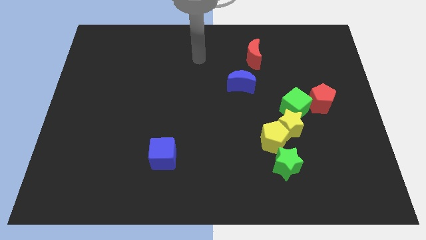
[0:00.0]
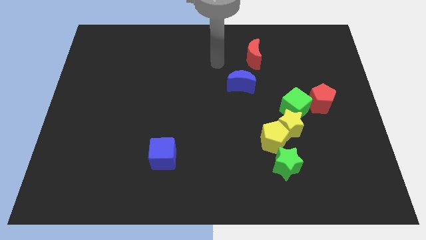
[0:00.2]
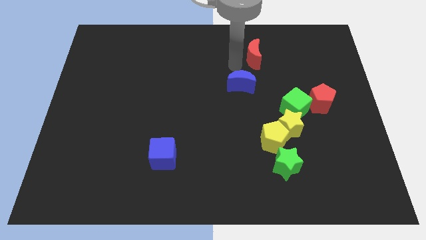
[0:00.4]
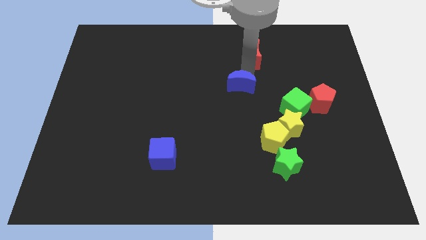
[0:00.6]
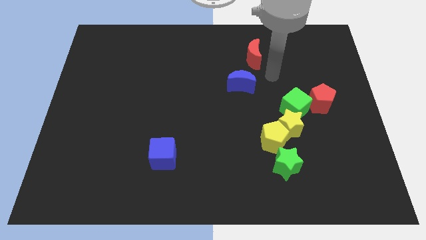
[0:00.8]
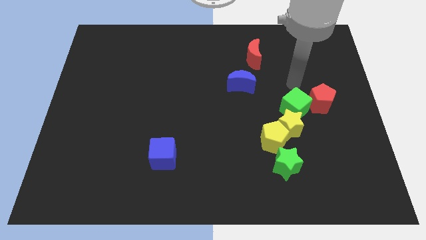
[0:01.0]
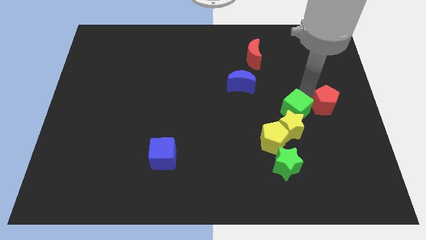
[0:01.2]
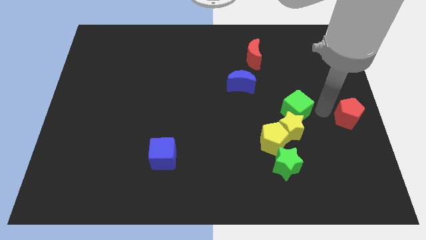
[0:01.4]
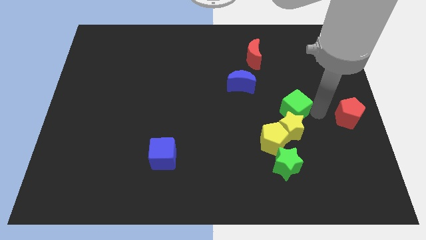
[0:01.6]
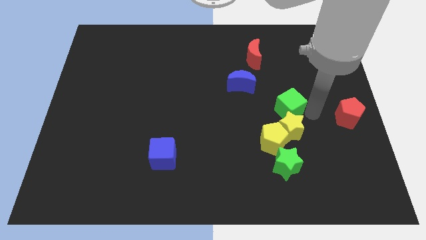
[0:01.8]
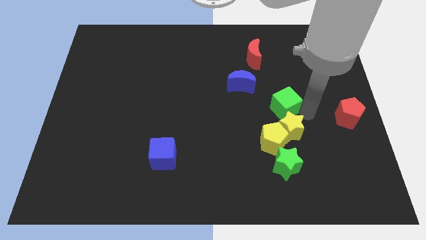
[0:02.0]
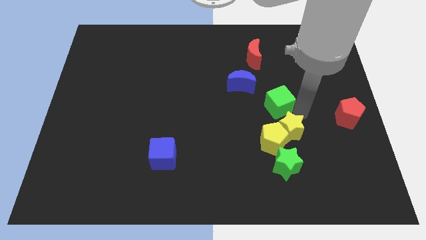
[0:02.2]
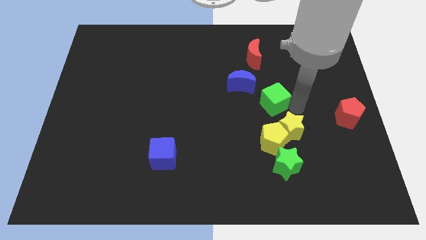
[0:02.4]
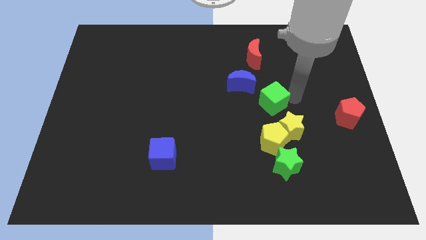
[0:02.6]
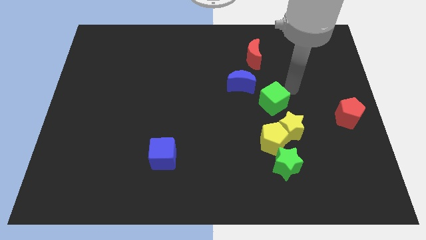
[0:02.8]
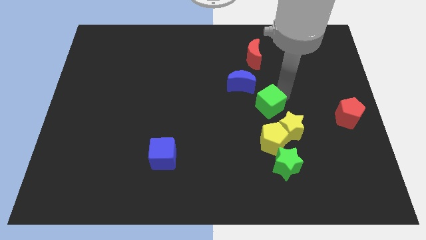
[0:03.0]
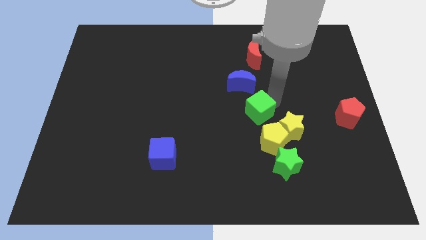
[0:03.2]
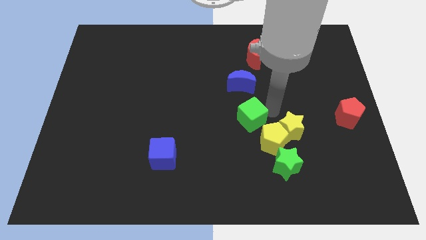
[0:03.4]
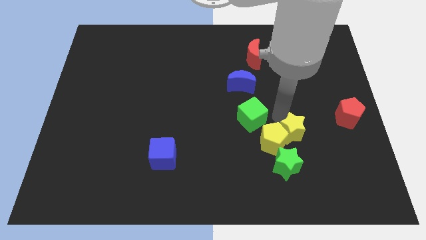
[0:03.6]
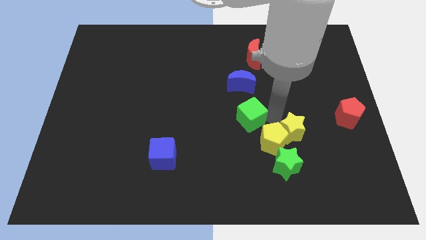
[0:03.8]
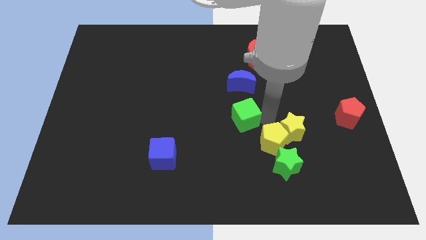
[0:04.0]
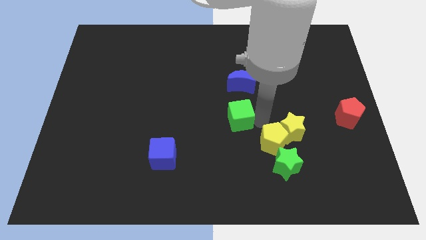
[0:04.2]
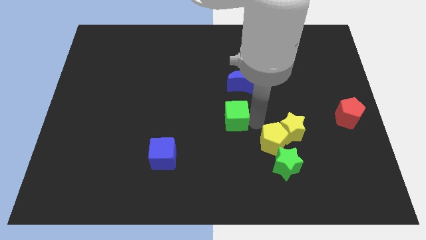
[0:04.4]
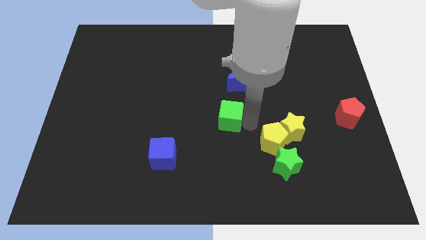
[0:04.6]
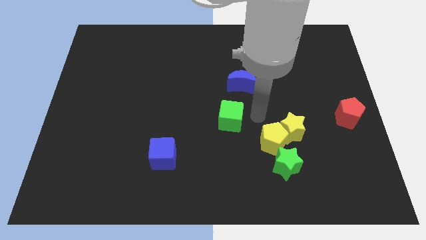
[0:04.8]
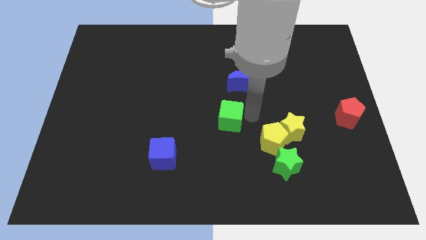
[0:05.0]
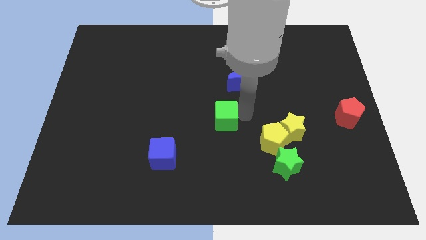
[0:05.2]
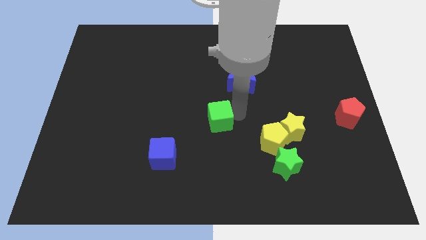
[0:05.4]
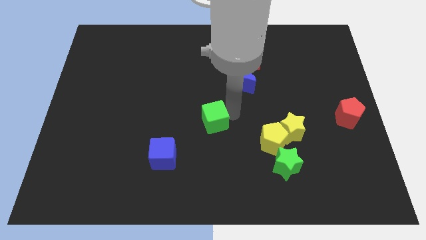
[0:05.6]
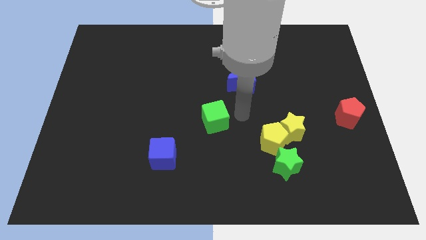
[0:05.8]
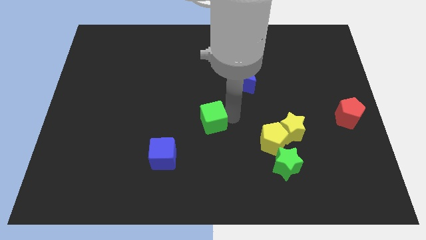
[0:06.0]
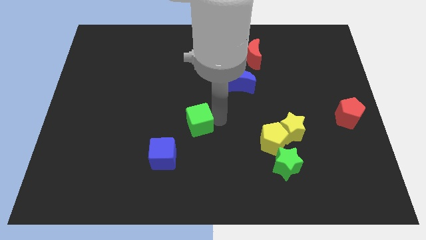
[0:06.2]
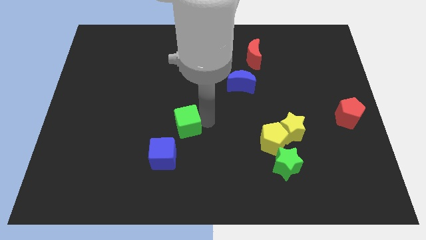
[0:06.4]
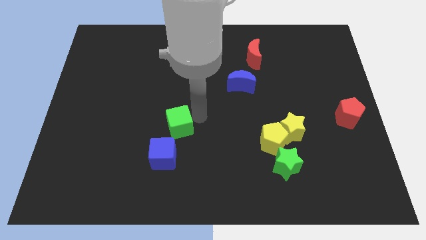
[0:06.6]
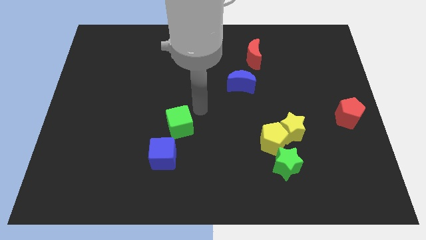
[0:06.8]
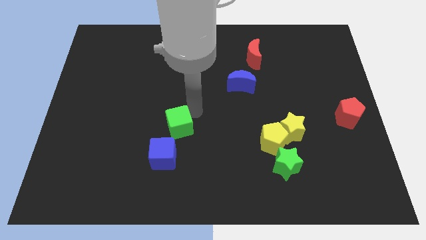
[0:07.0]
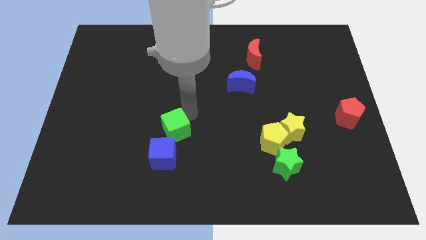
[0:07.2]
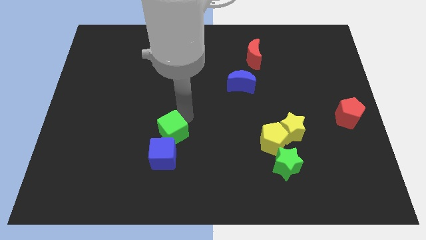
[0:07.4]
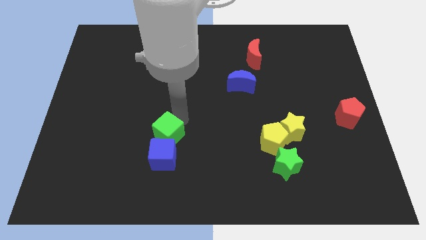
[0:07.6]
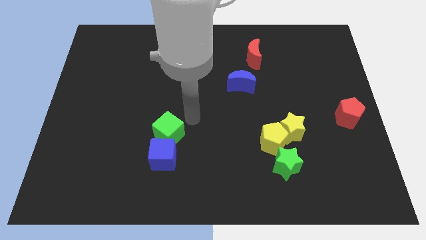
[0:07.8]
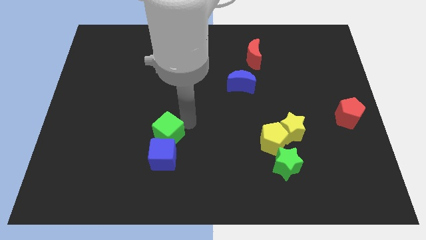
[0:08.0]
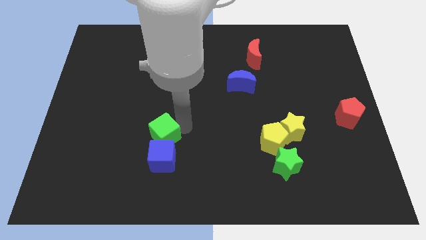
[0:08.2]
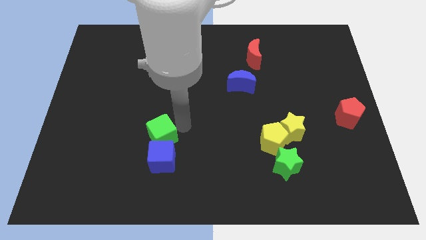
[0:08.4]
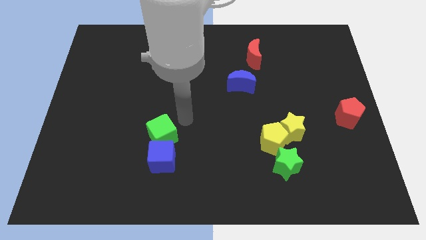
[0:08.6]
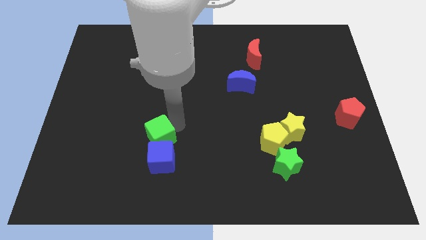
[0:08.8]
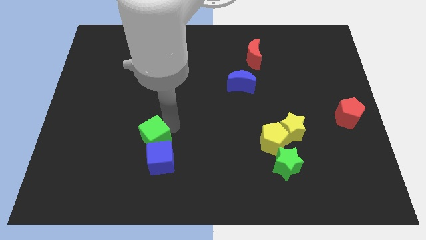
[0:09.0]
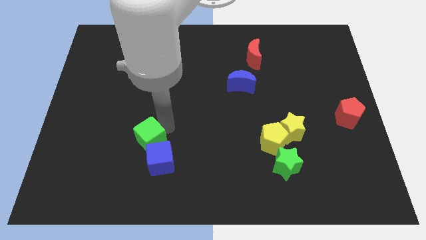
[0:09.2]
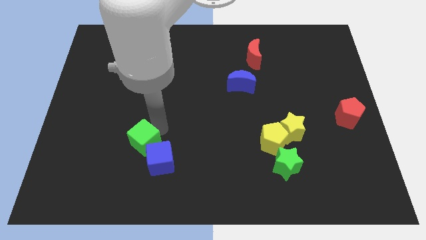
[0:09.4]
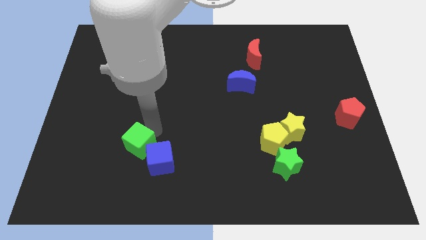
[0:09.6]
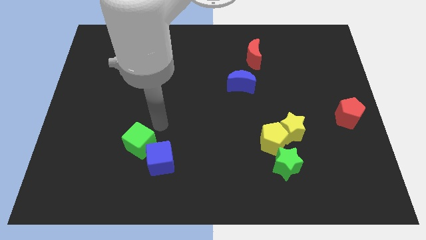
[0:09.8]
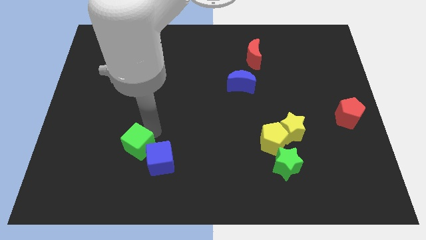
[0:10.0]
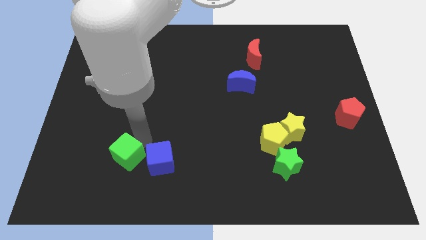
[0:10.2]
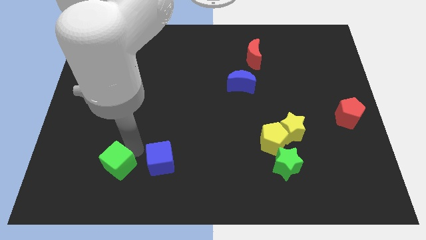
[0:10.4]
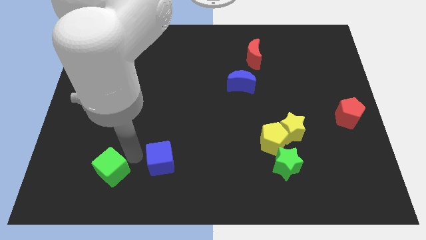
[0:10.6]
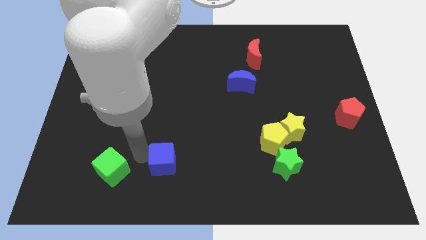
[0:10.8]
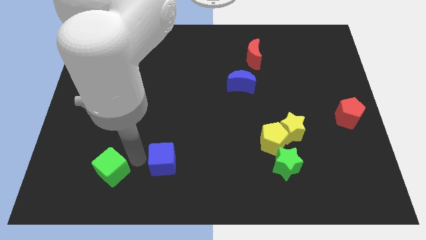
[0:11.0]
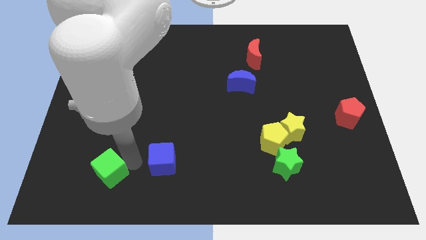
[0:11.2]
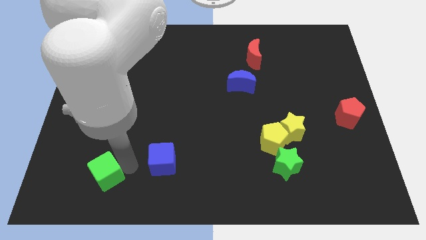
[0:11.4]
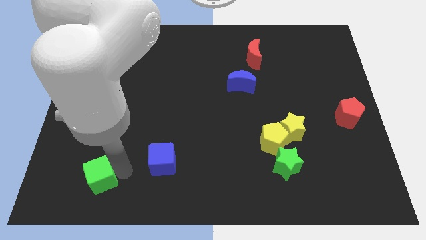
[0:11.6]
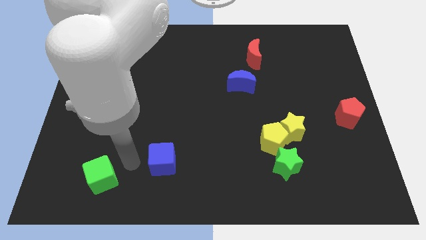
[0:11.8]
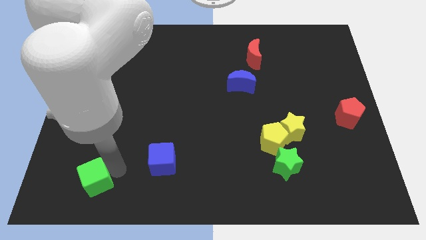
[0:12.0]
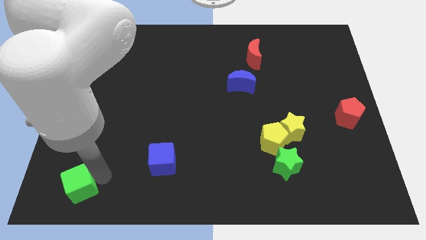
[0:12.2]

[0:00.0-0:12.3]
move the green cube to the bottom left of the board
